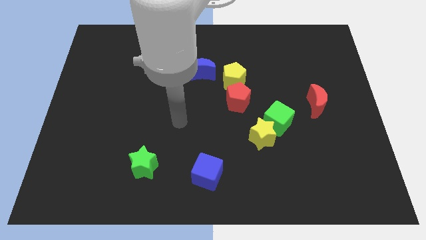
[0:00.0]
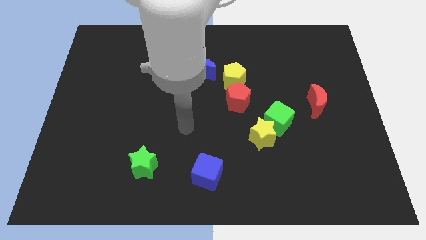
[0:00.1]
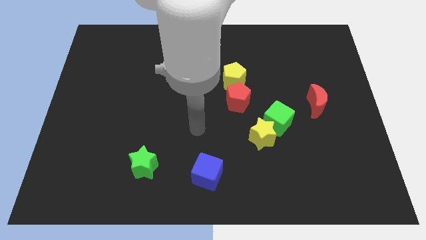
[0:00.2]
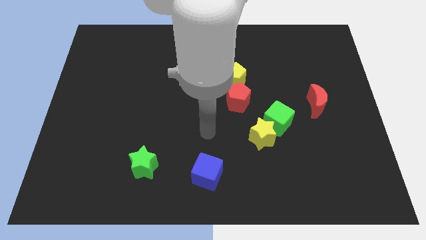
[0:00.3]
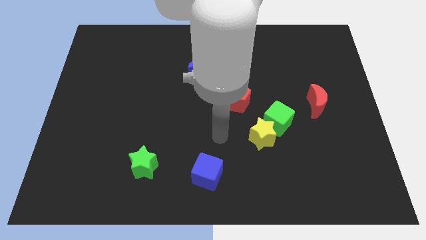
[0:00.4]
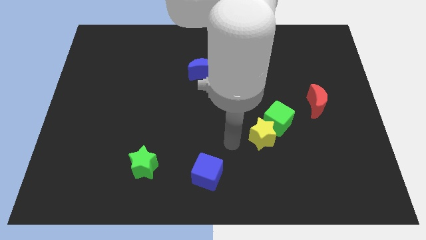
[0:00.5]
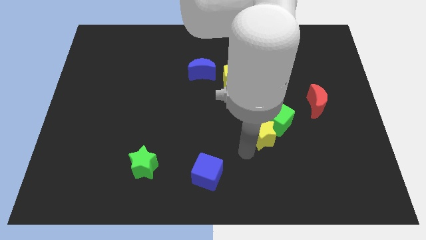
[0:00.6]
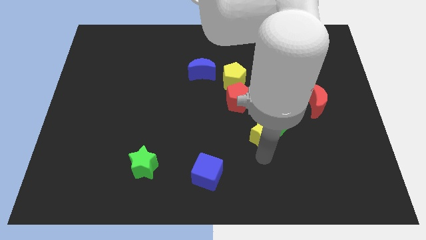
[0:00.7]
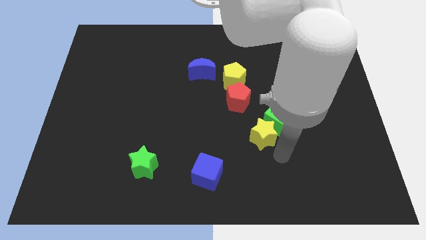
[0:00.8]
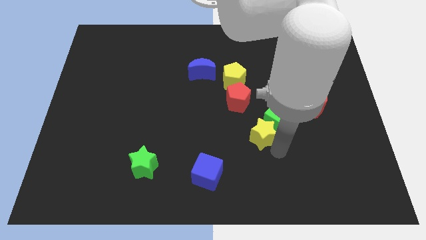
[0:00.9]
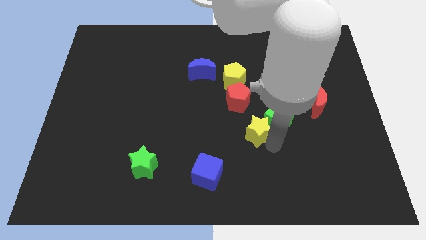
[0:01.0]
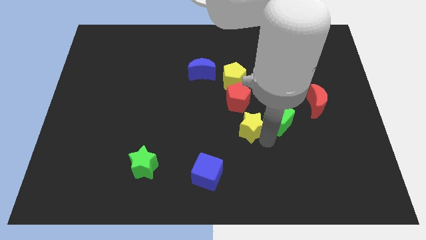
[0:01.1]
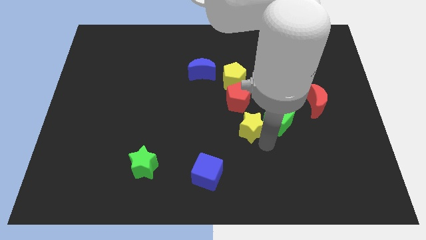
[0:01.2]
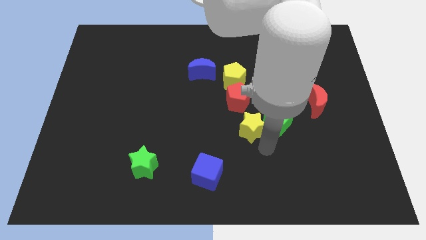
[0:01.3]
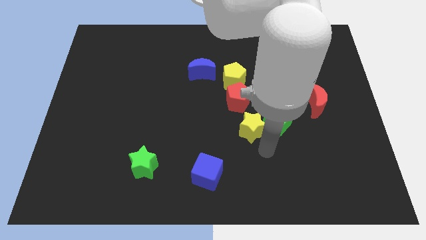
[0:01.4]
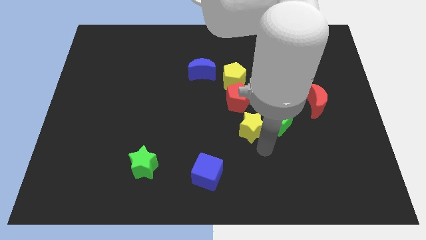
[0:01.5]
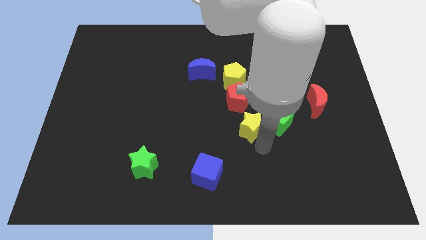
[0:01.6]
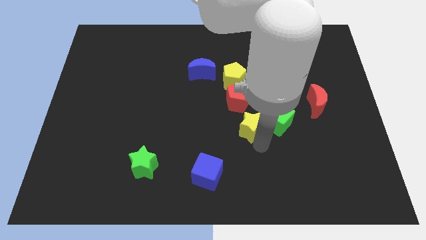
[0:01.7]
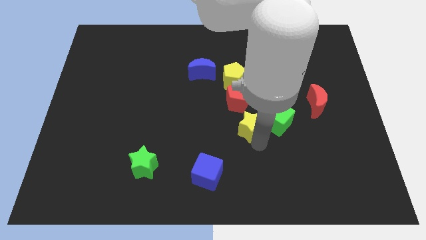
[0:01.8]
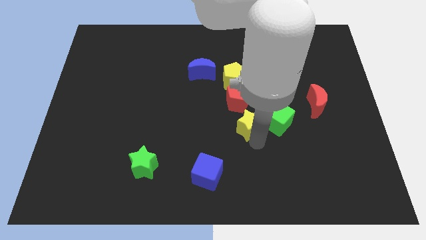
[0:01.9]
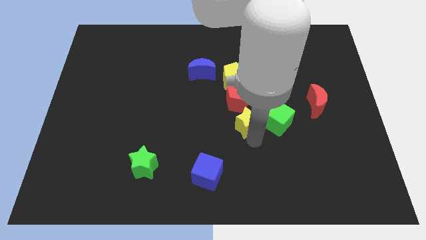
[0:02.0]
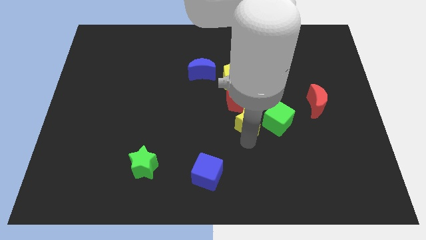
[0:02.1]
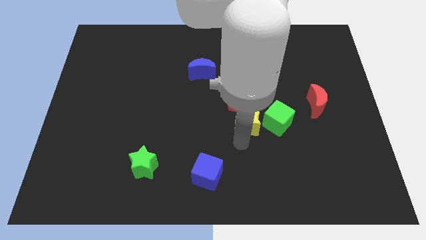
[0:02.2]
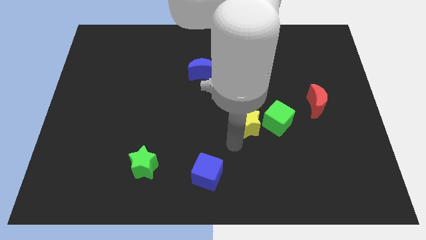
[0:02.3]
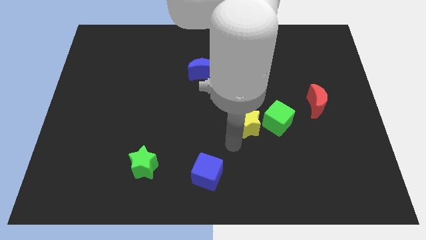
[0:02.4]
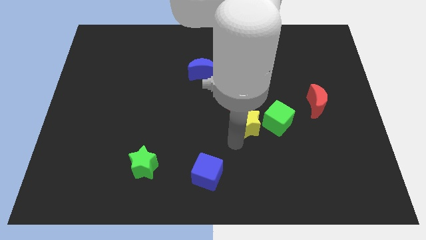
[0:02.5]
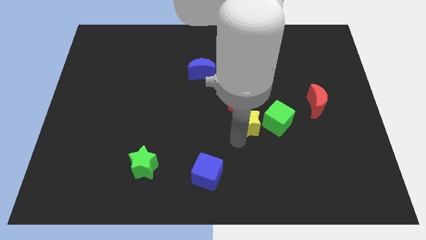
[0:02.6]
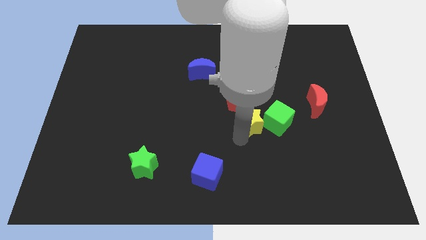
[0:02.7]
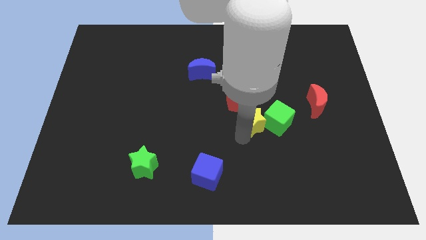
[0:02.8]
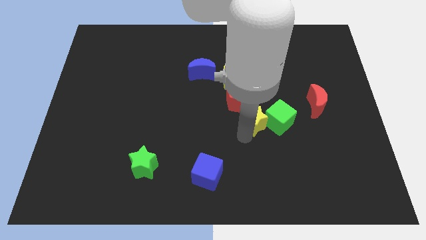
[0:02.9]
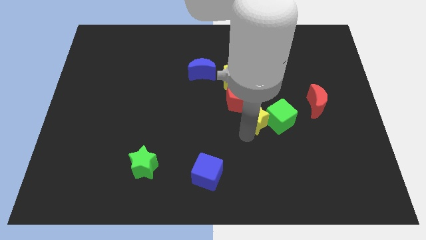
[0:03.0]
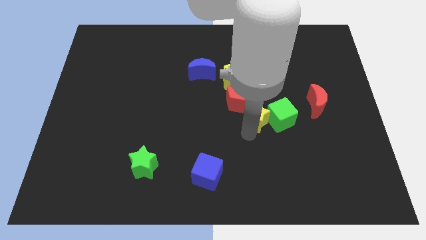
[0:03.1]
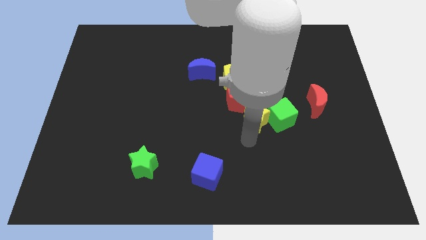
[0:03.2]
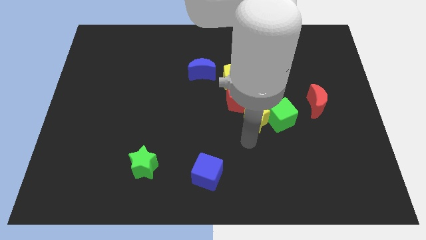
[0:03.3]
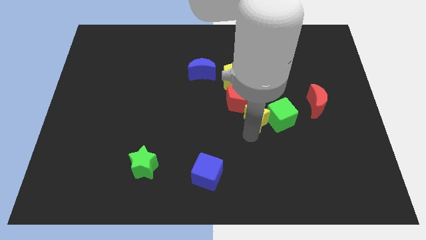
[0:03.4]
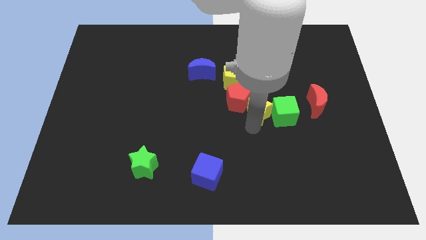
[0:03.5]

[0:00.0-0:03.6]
move the yellow star up slightly

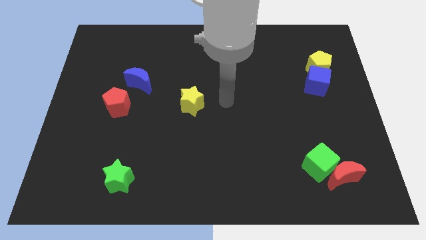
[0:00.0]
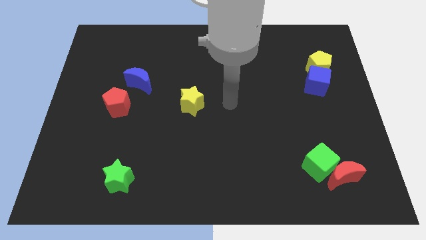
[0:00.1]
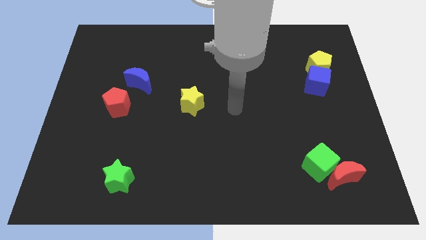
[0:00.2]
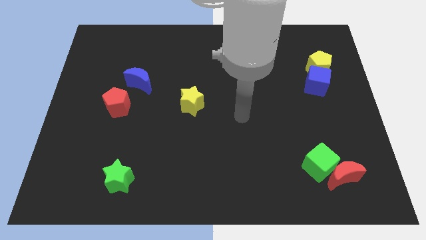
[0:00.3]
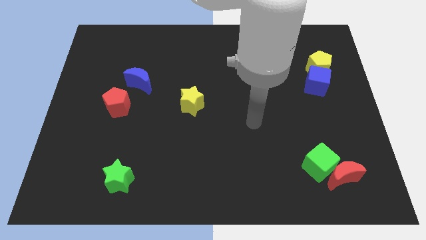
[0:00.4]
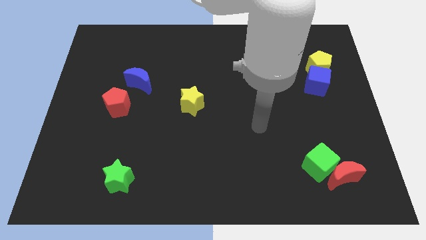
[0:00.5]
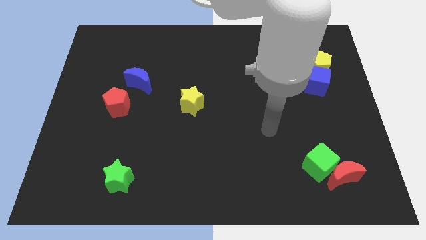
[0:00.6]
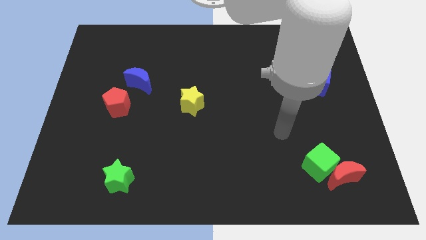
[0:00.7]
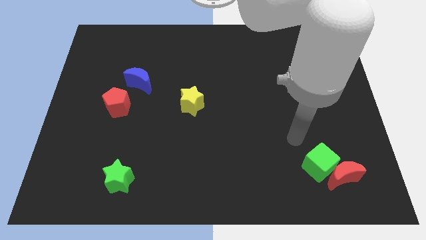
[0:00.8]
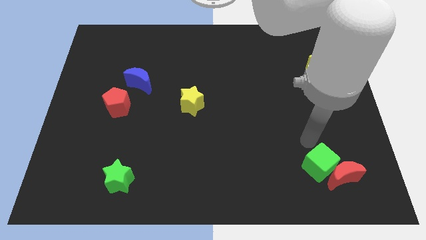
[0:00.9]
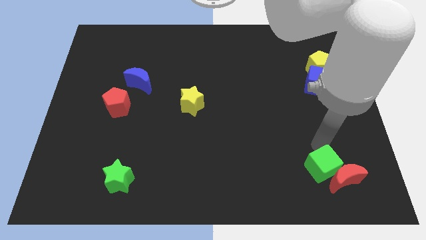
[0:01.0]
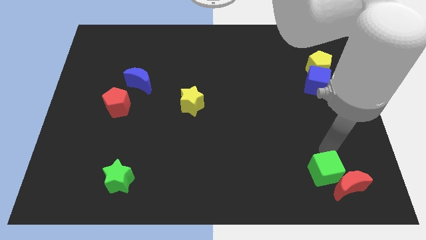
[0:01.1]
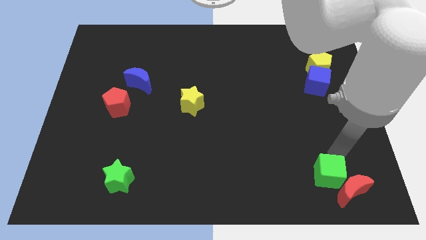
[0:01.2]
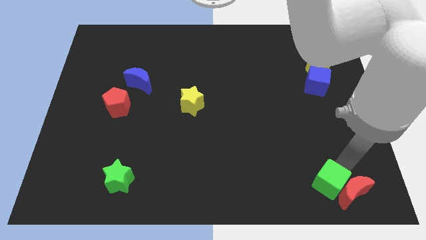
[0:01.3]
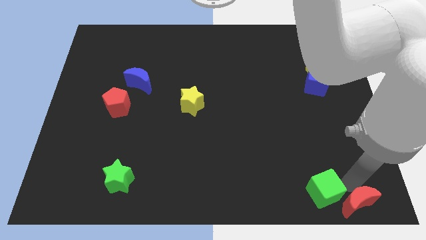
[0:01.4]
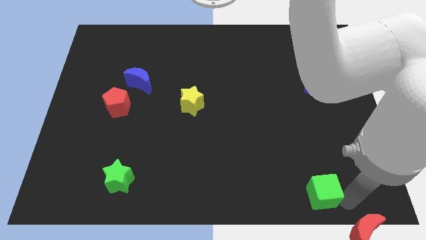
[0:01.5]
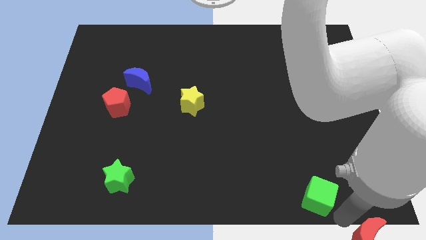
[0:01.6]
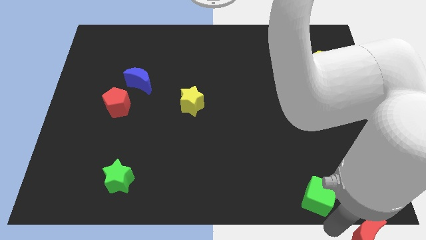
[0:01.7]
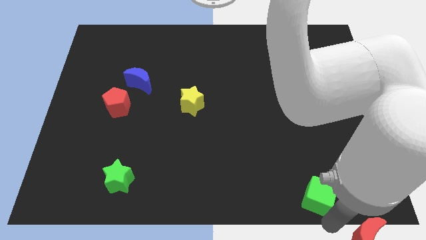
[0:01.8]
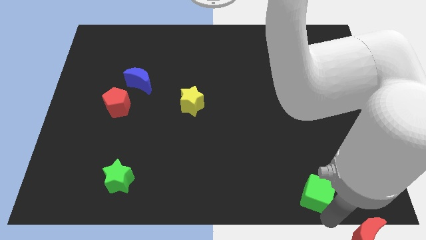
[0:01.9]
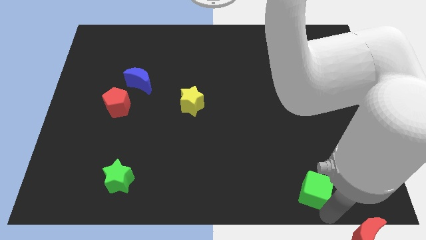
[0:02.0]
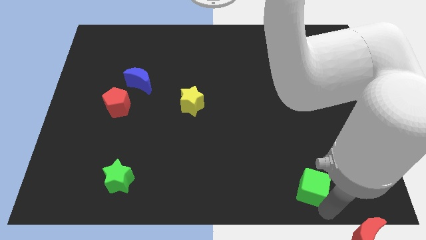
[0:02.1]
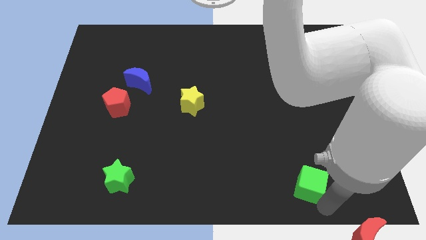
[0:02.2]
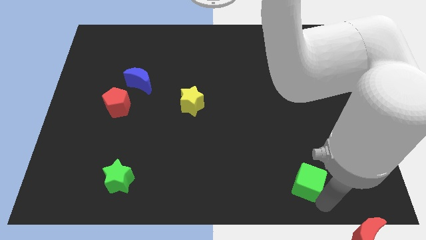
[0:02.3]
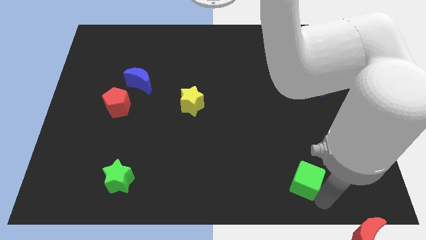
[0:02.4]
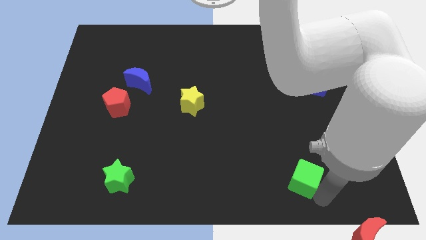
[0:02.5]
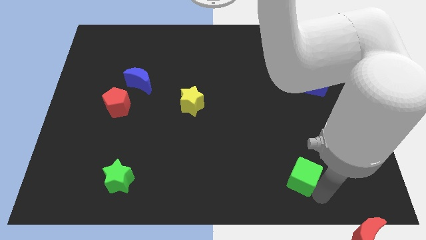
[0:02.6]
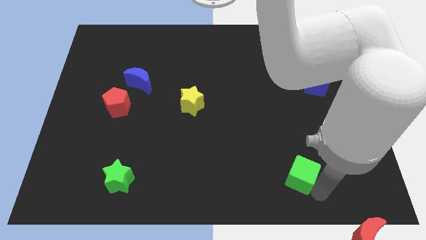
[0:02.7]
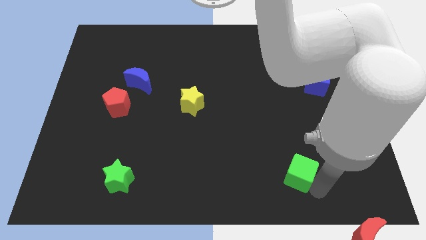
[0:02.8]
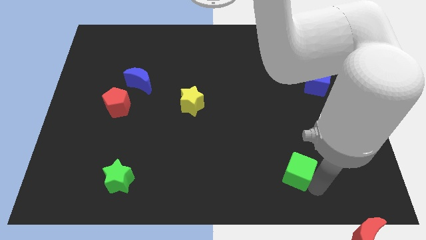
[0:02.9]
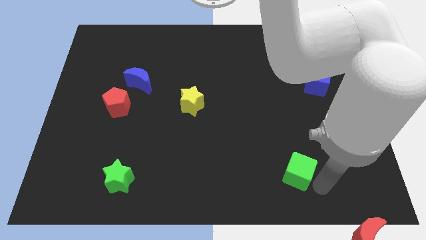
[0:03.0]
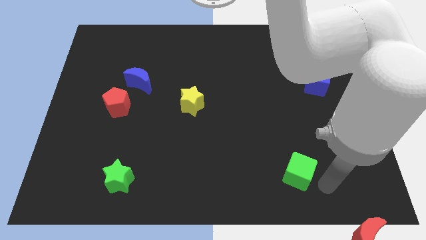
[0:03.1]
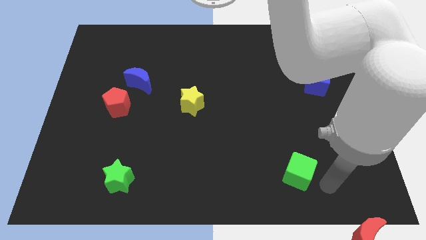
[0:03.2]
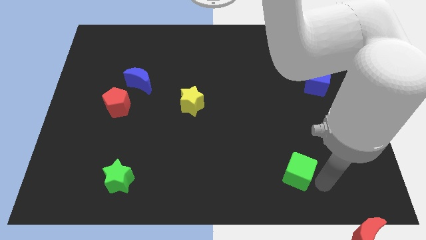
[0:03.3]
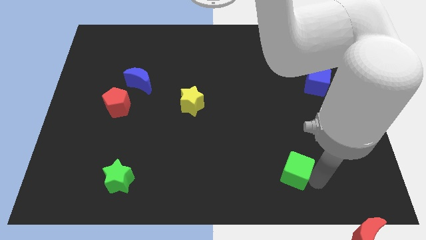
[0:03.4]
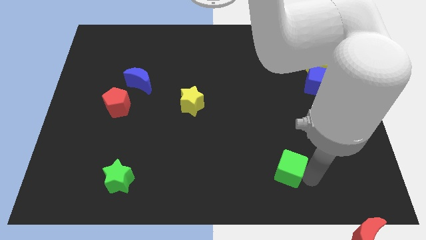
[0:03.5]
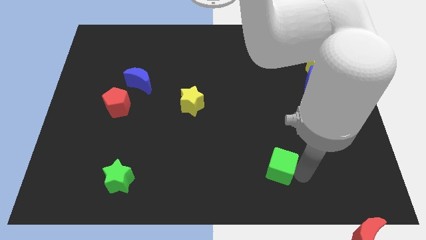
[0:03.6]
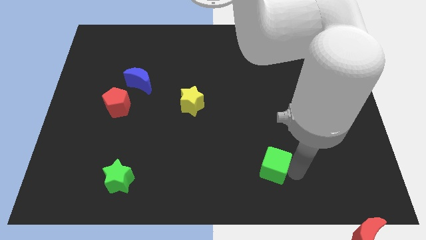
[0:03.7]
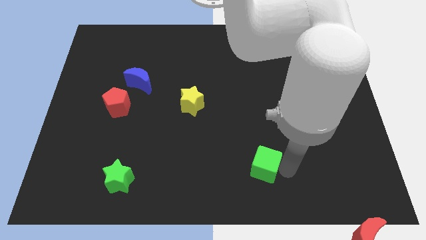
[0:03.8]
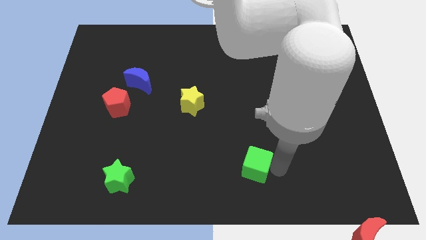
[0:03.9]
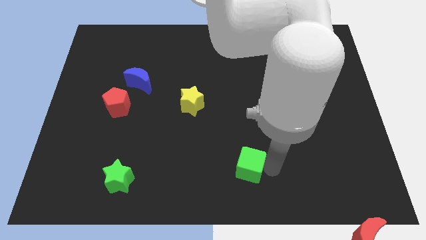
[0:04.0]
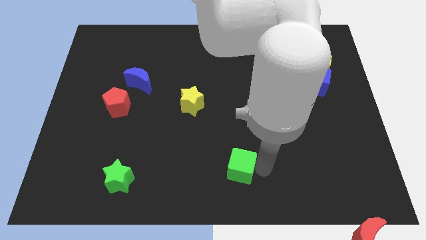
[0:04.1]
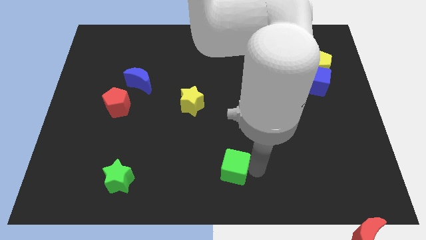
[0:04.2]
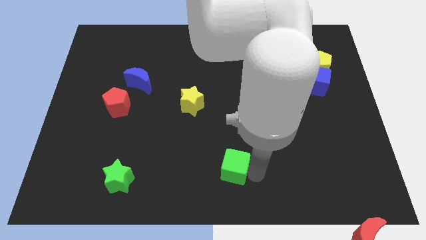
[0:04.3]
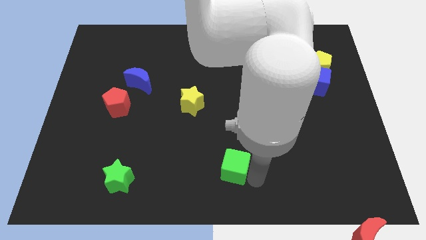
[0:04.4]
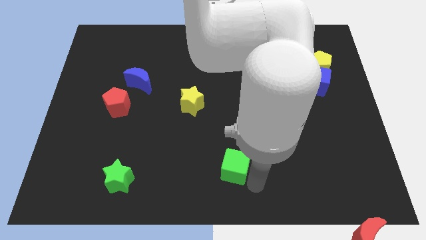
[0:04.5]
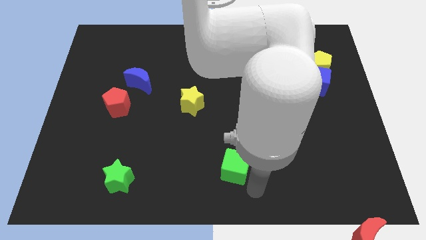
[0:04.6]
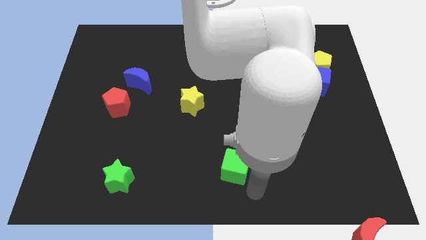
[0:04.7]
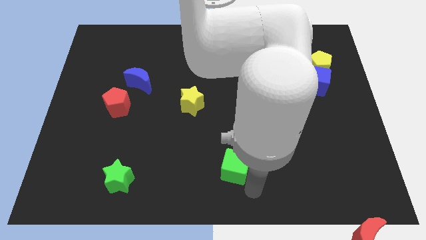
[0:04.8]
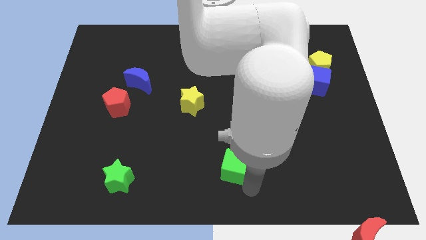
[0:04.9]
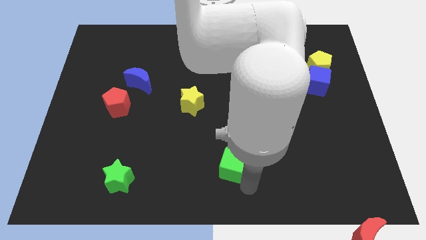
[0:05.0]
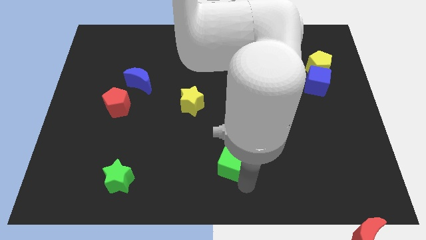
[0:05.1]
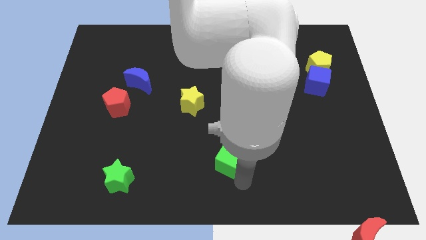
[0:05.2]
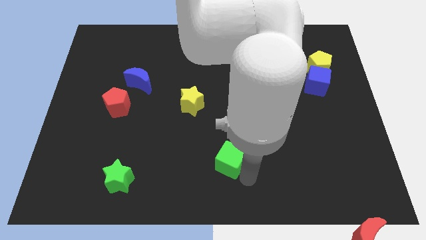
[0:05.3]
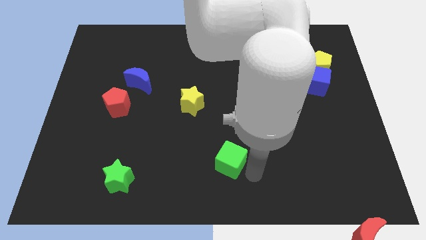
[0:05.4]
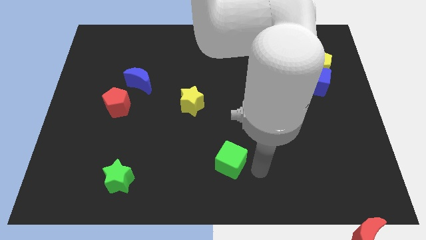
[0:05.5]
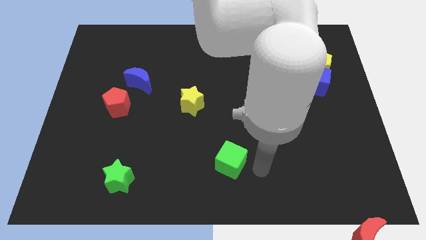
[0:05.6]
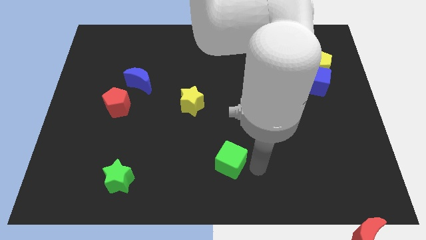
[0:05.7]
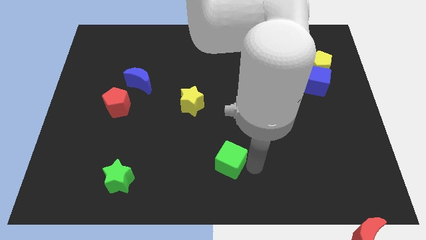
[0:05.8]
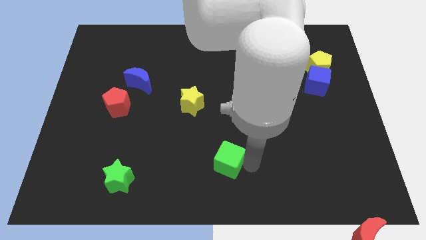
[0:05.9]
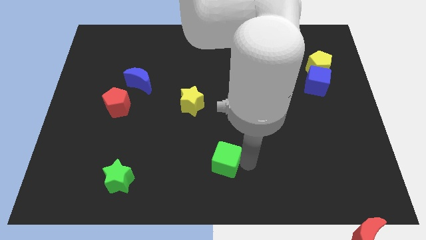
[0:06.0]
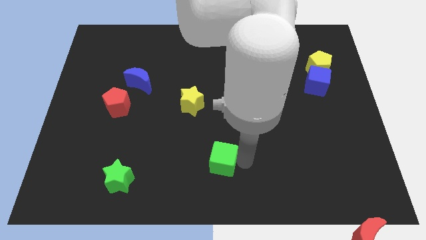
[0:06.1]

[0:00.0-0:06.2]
move the green cube left
